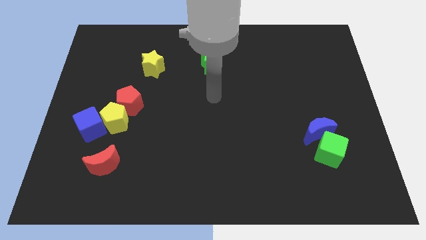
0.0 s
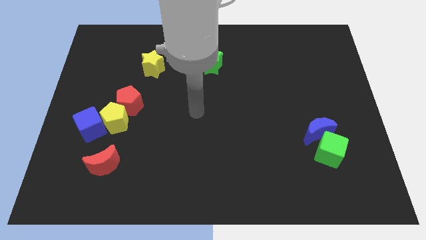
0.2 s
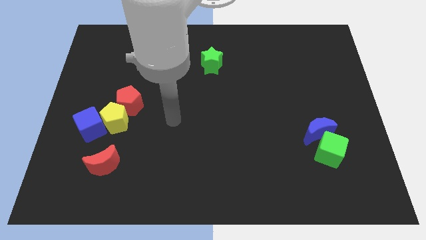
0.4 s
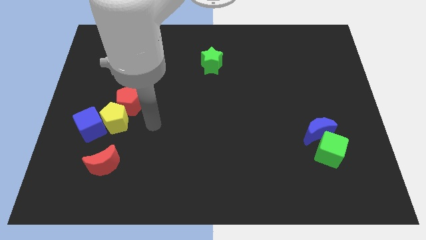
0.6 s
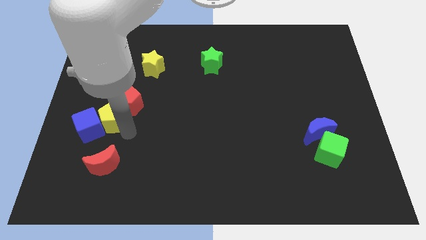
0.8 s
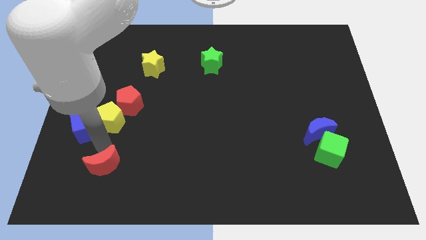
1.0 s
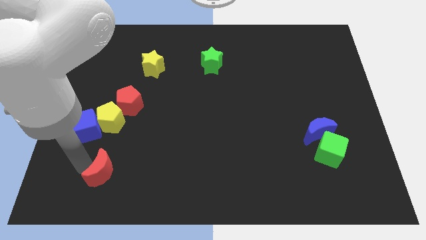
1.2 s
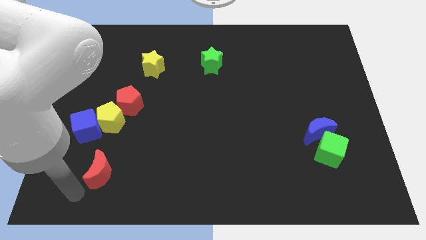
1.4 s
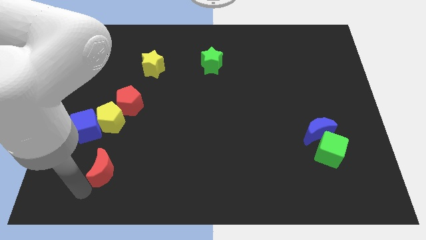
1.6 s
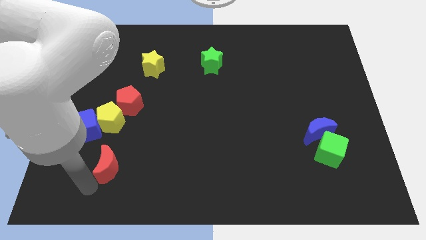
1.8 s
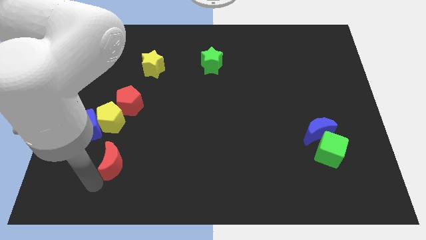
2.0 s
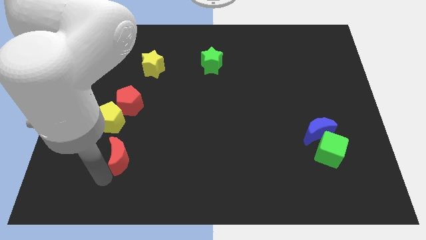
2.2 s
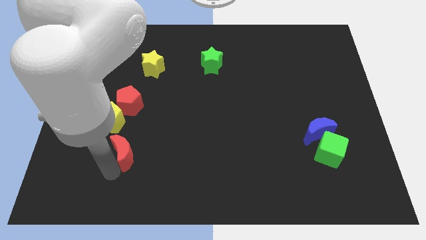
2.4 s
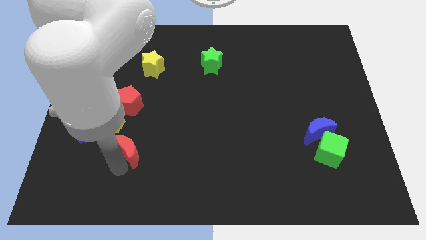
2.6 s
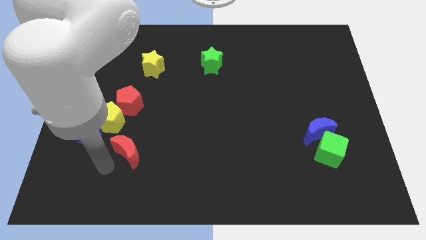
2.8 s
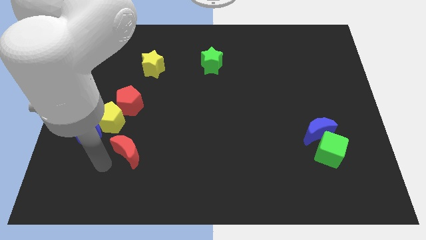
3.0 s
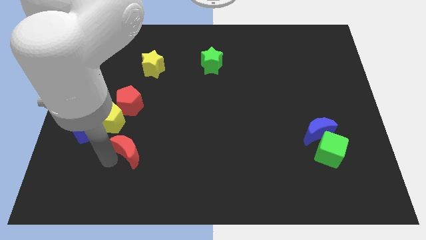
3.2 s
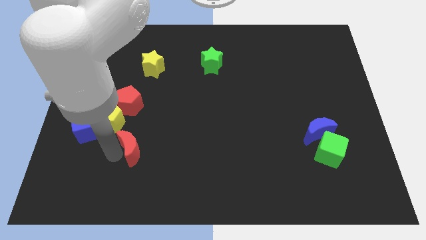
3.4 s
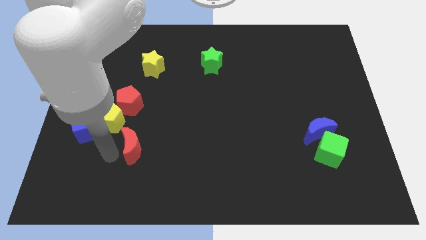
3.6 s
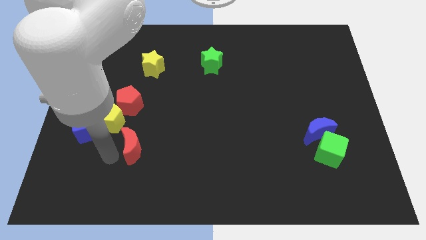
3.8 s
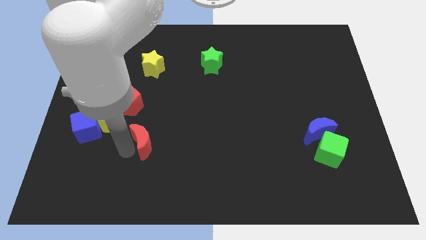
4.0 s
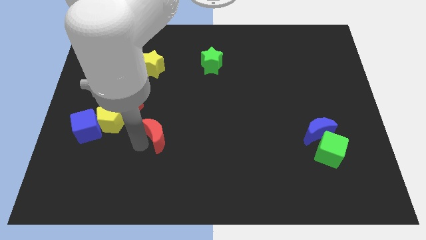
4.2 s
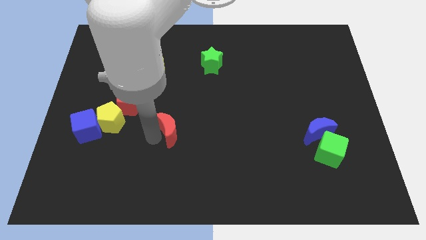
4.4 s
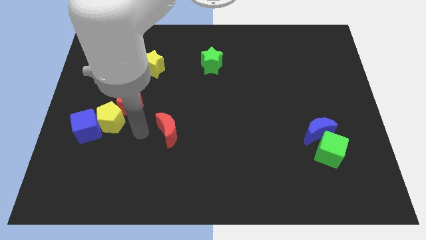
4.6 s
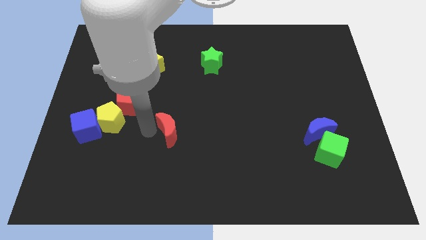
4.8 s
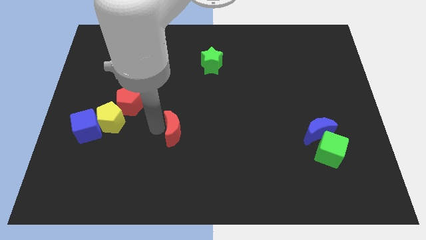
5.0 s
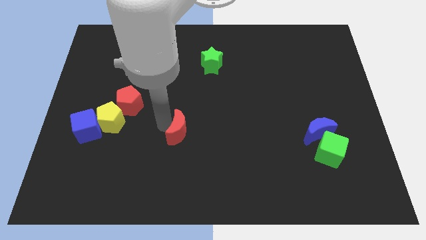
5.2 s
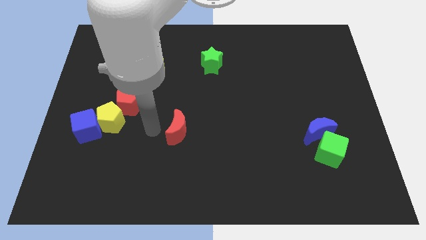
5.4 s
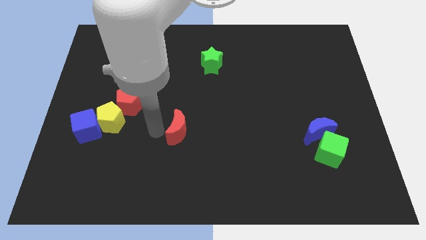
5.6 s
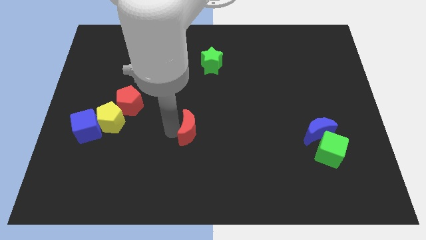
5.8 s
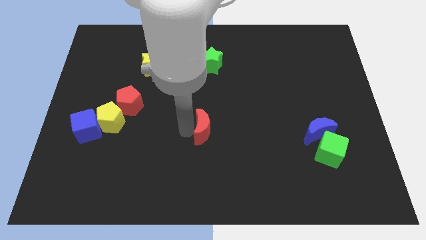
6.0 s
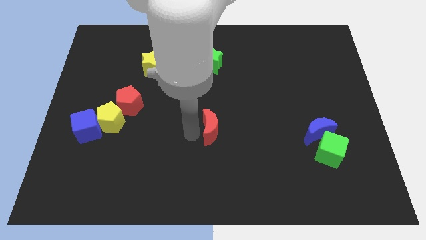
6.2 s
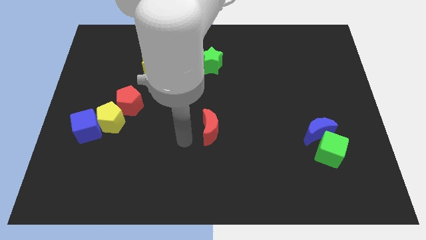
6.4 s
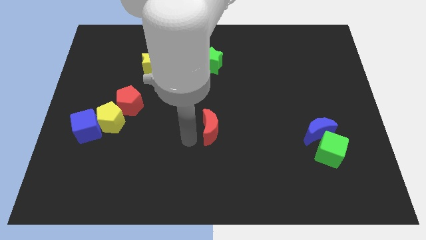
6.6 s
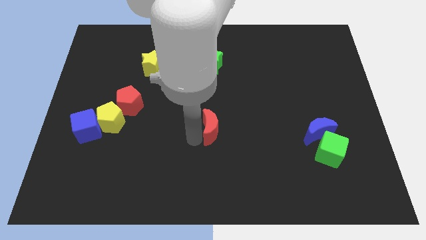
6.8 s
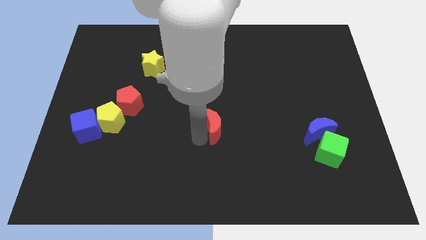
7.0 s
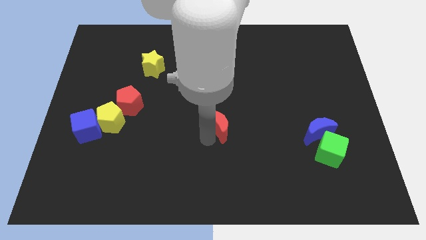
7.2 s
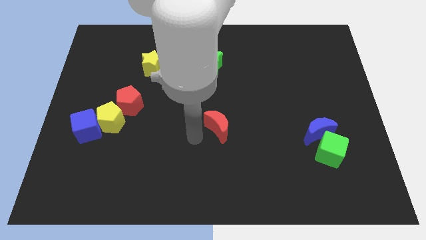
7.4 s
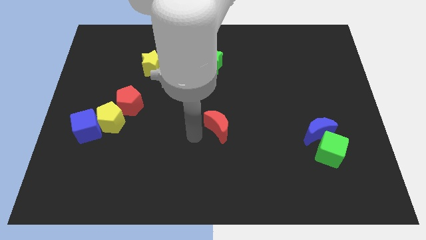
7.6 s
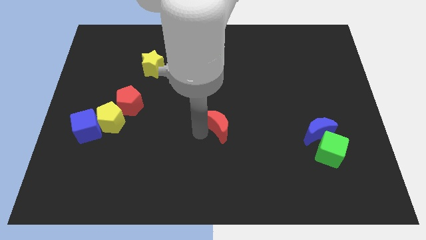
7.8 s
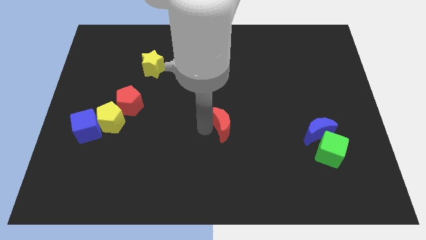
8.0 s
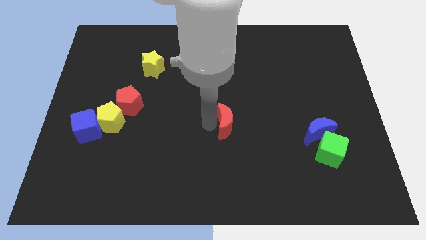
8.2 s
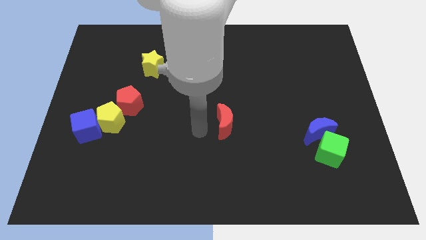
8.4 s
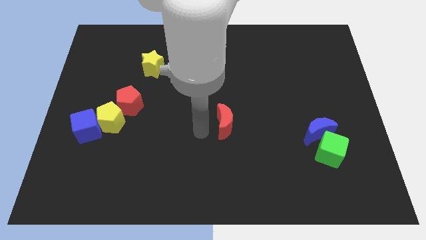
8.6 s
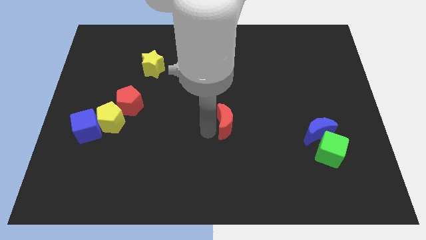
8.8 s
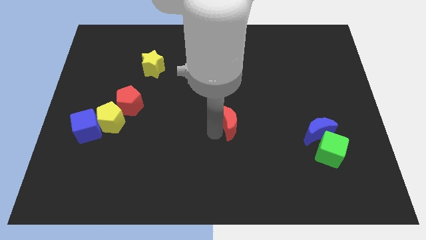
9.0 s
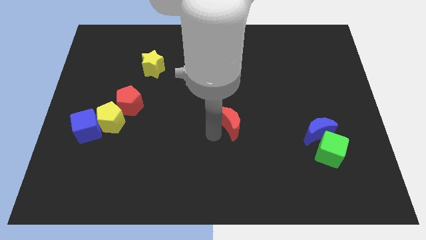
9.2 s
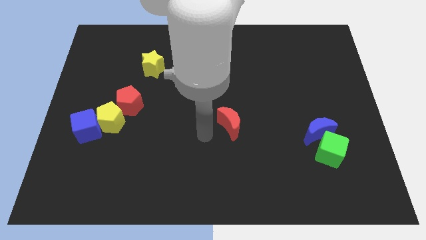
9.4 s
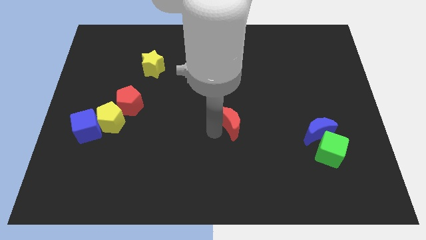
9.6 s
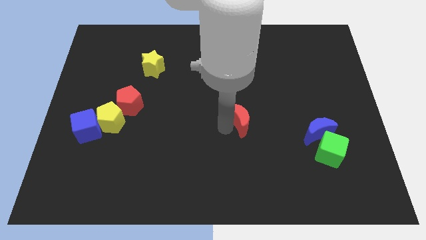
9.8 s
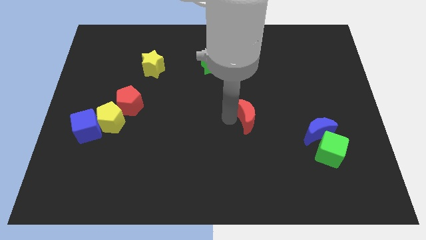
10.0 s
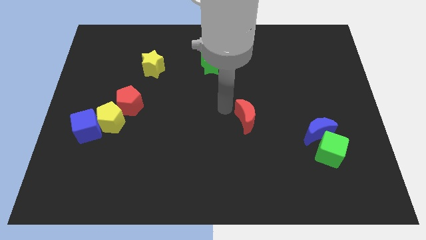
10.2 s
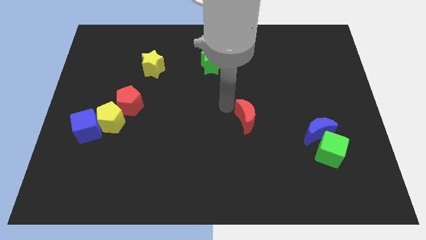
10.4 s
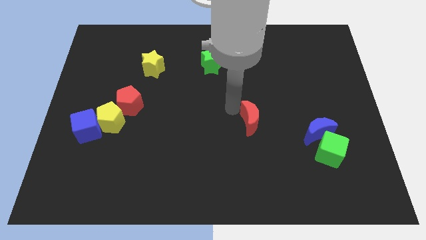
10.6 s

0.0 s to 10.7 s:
slide the red moon just left of the blue moon
